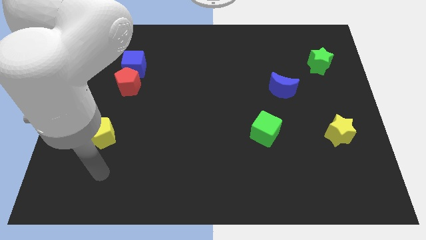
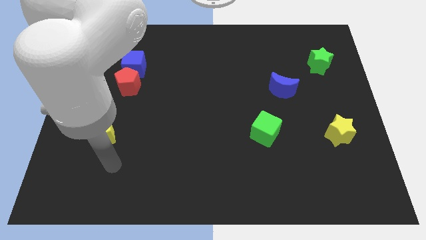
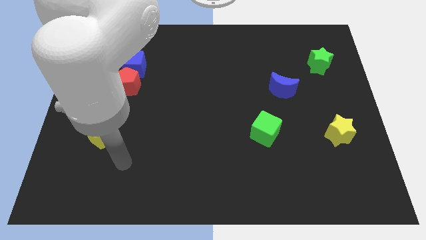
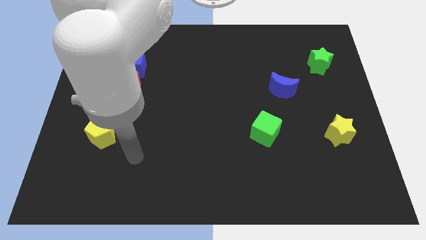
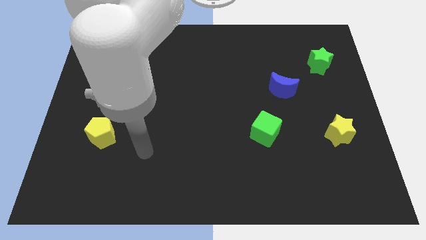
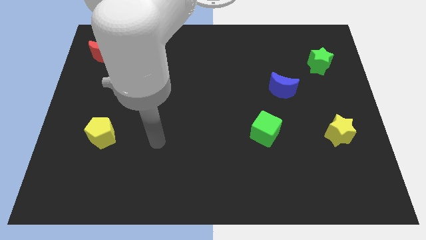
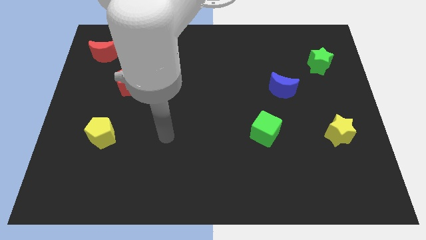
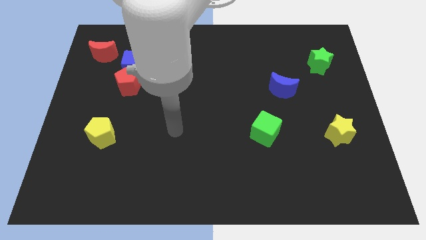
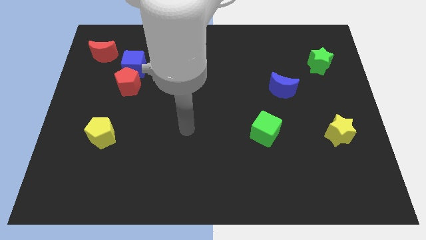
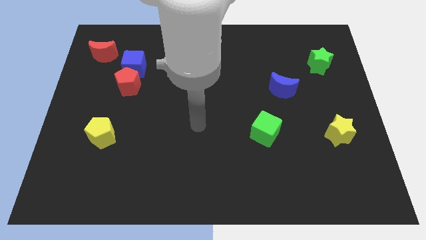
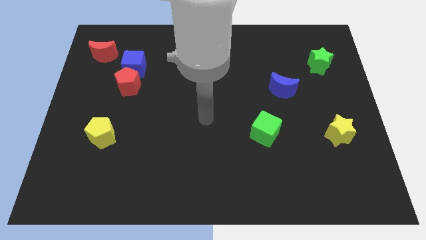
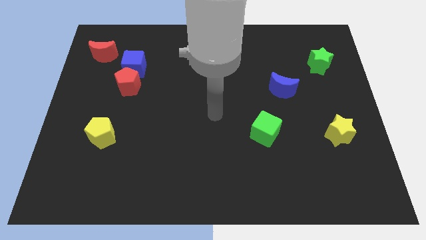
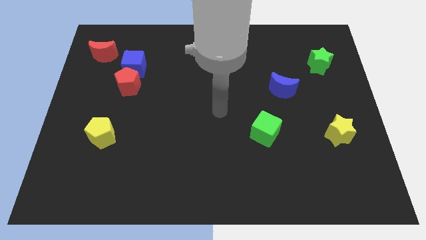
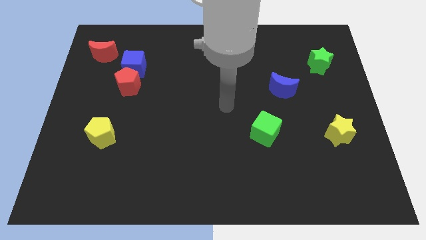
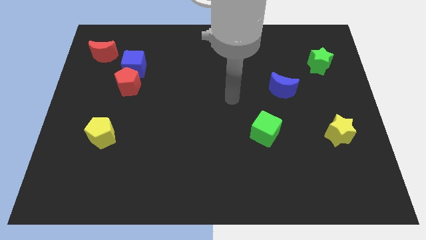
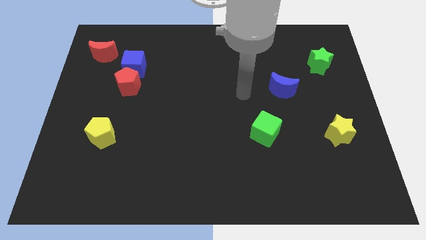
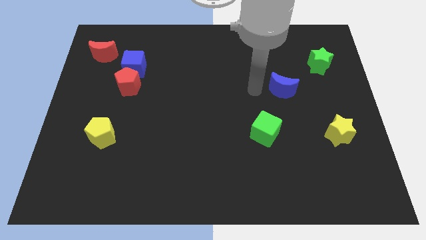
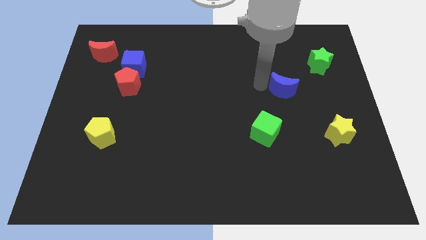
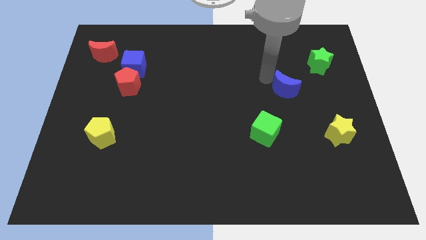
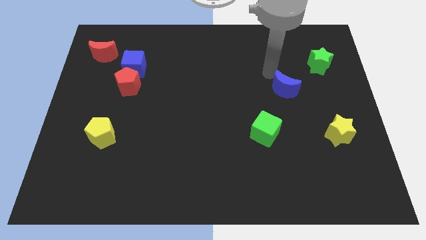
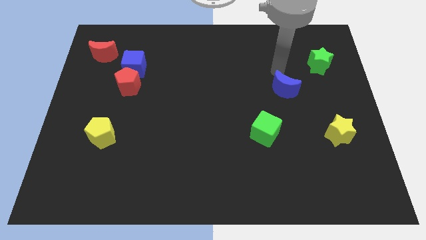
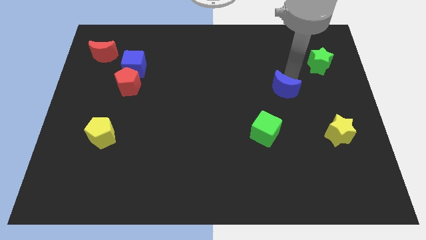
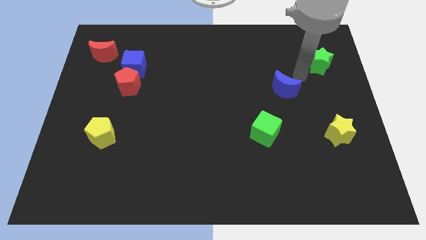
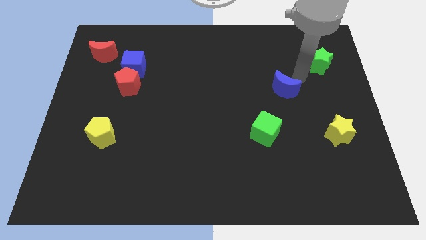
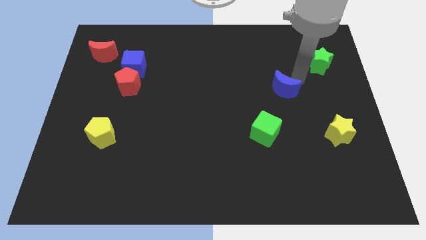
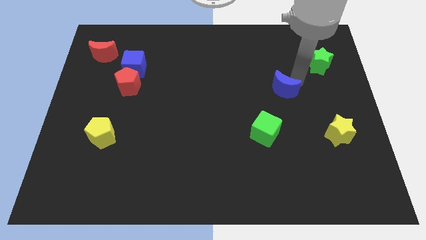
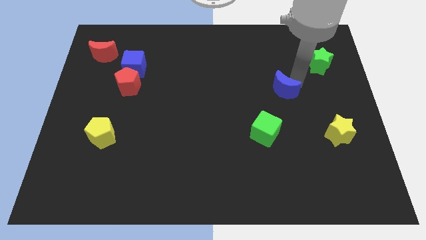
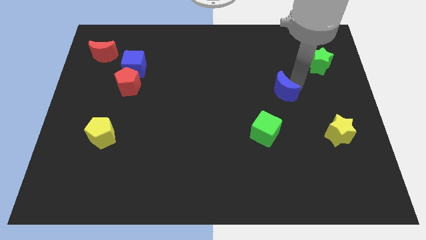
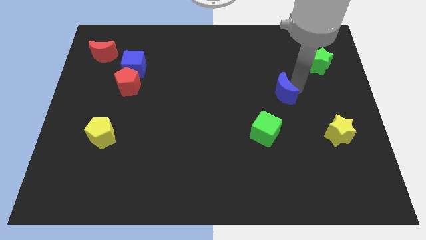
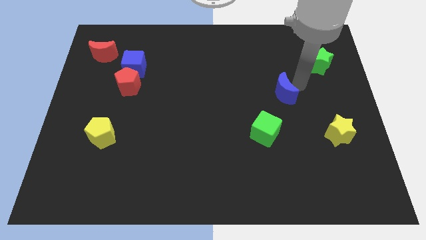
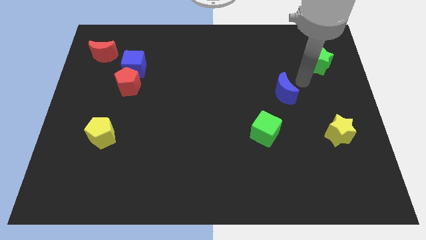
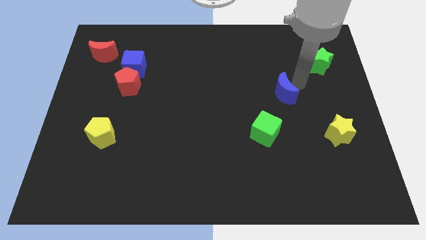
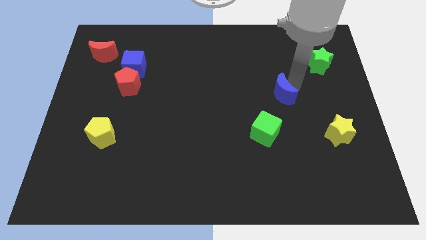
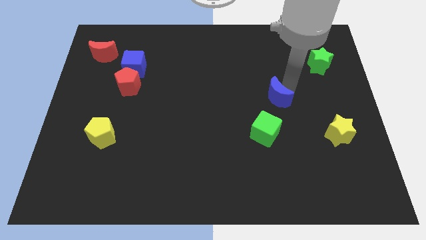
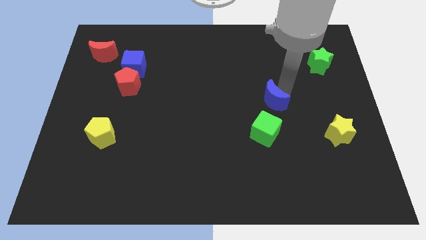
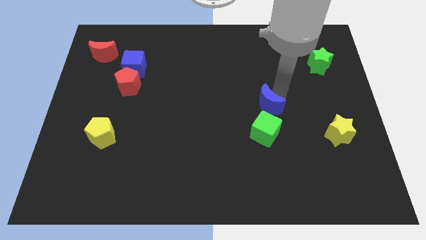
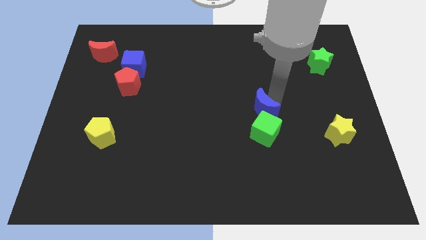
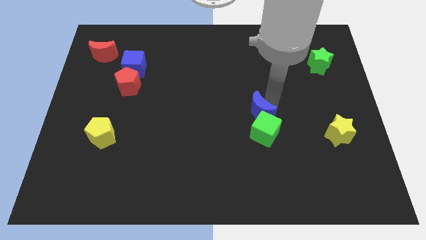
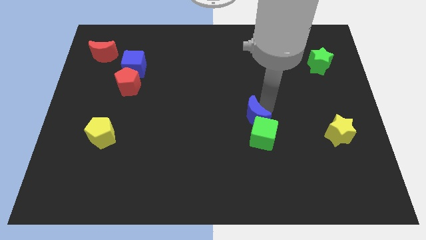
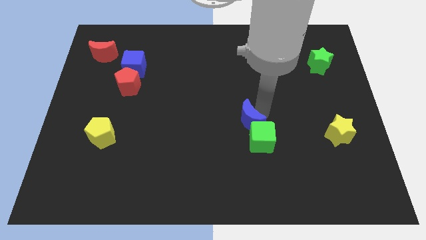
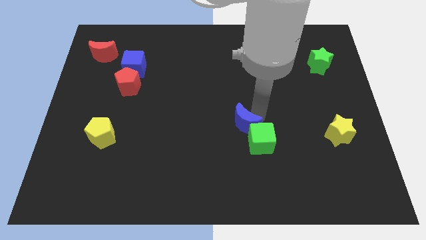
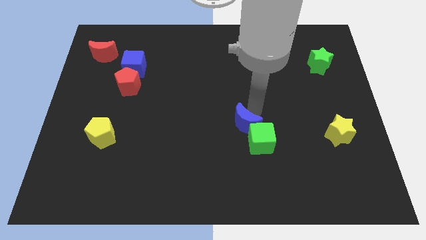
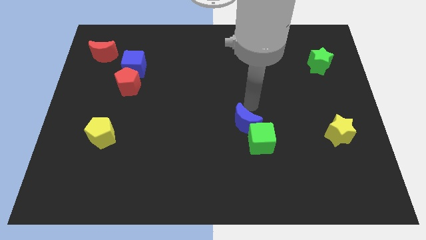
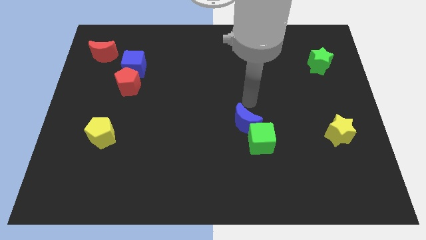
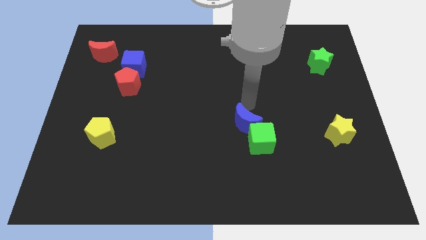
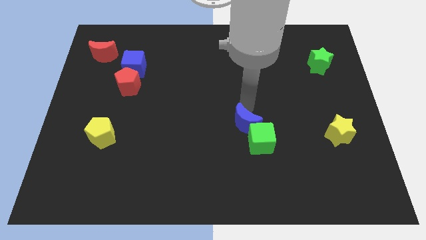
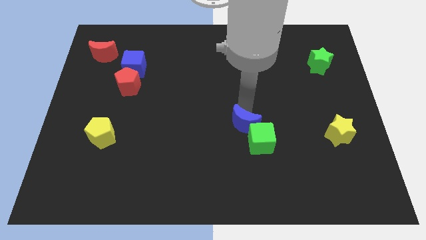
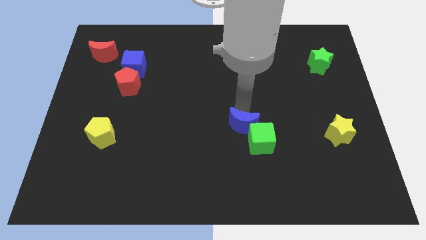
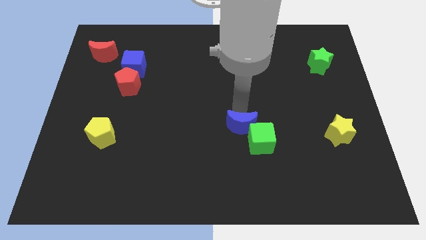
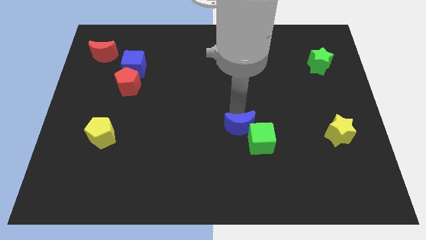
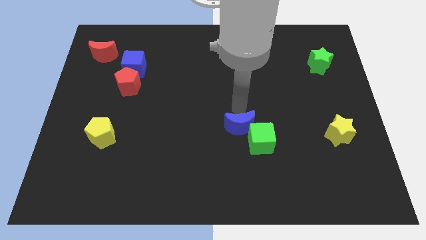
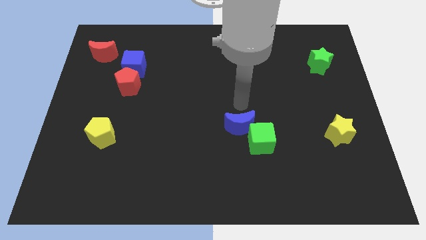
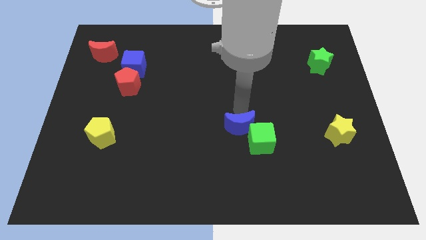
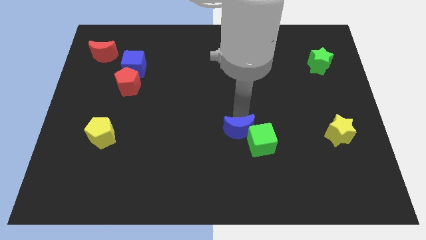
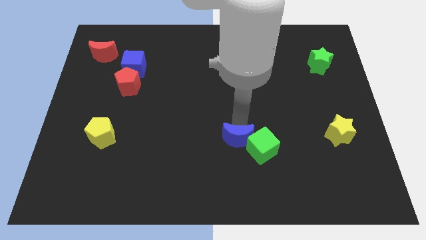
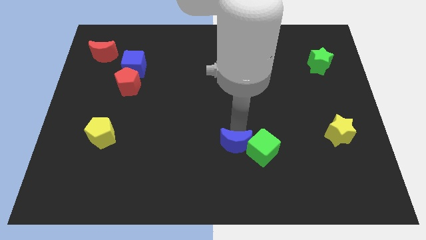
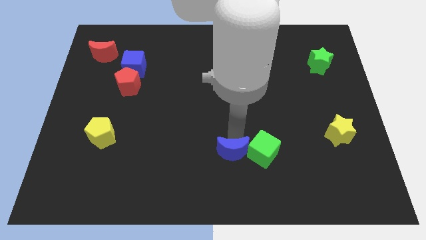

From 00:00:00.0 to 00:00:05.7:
push the blue moon to the bottom left of the green cube

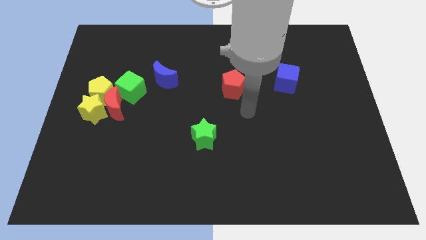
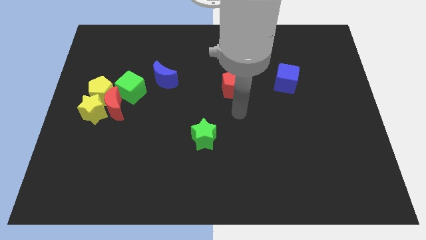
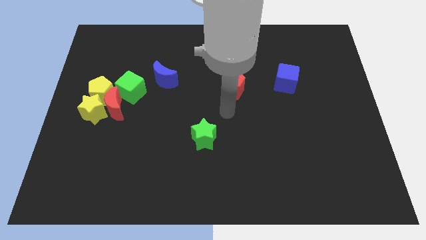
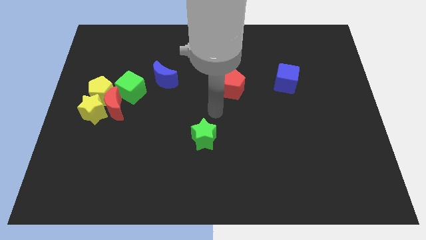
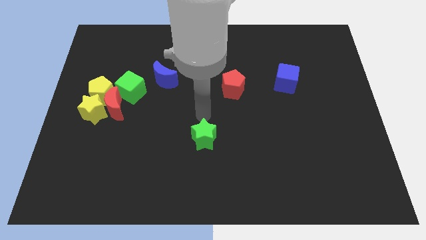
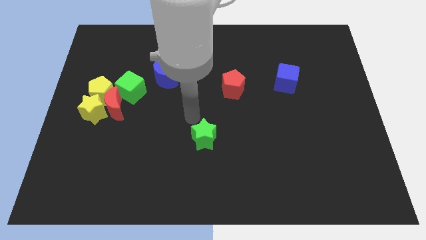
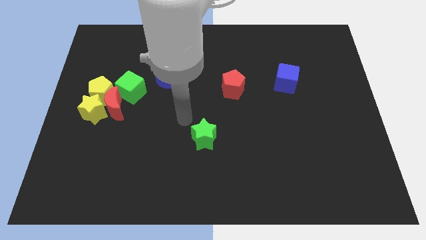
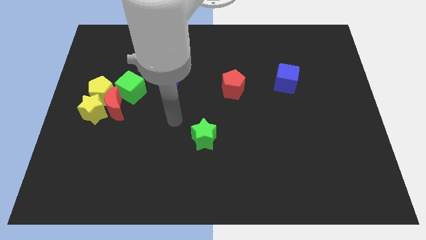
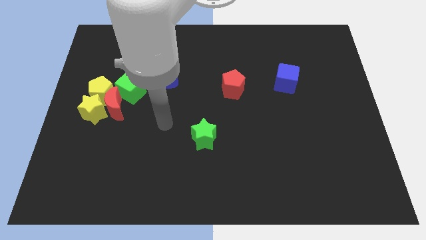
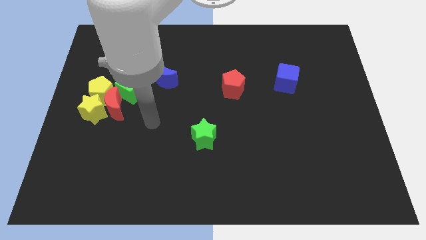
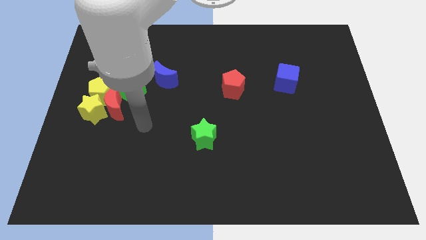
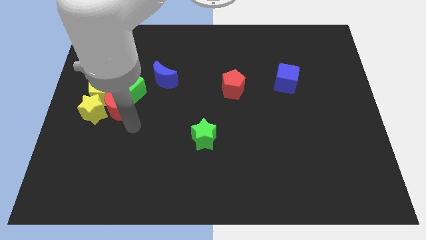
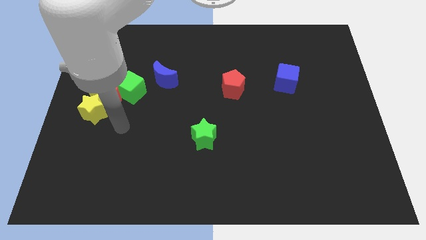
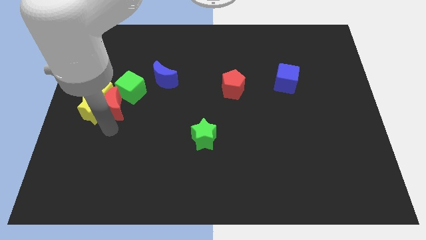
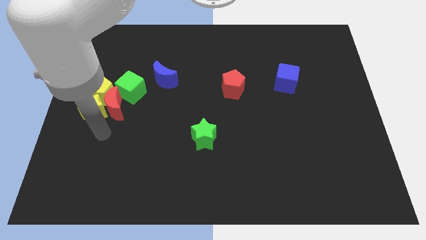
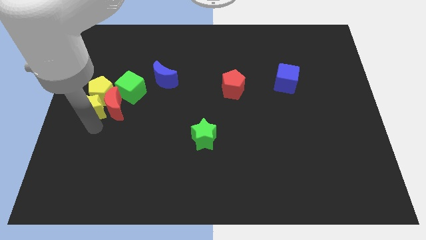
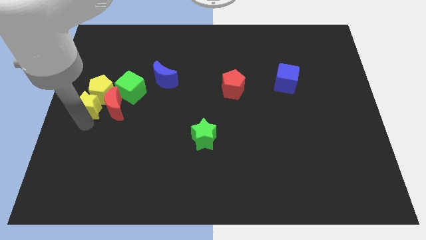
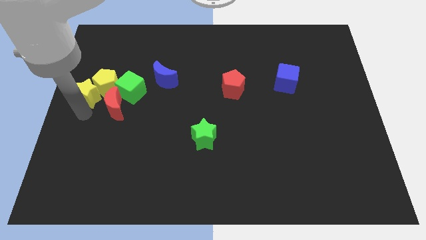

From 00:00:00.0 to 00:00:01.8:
put the yellow pentagon just left of the blue moon
